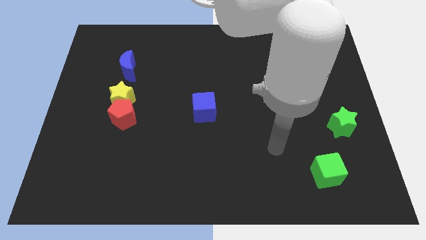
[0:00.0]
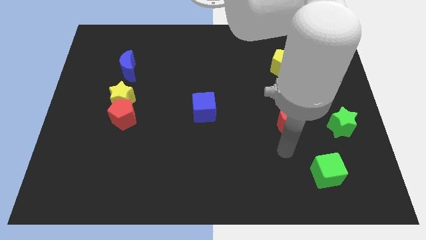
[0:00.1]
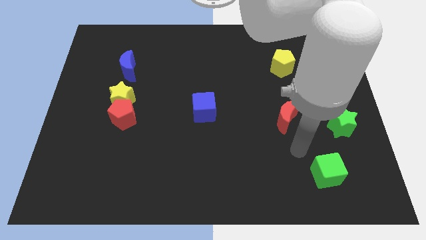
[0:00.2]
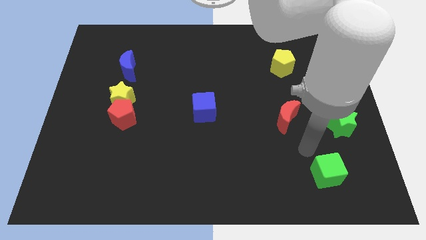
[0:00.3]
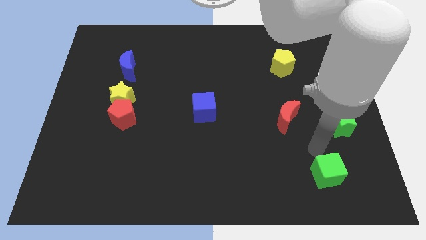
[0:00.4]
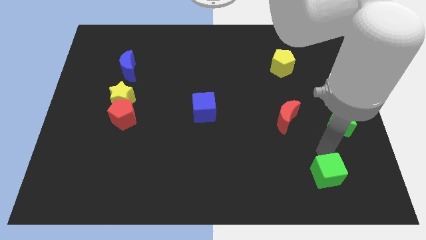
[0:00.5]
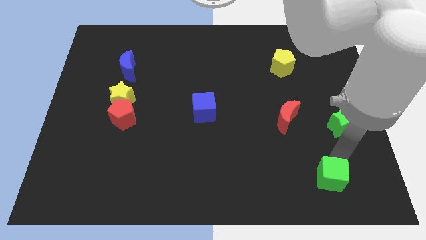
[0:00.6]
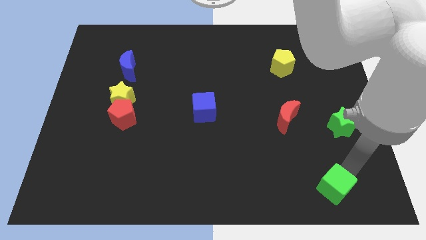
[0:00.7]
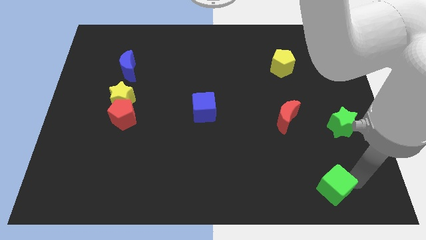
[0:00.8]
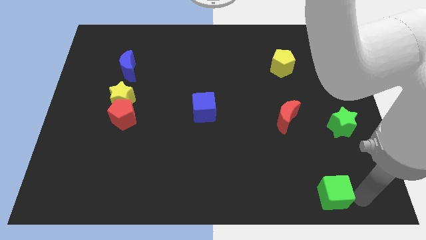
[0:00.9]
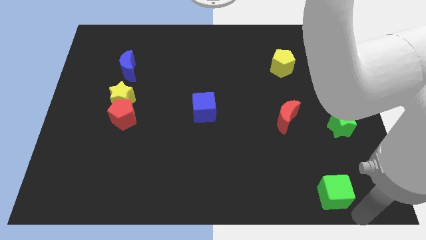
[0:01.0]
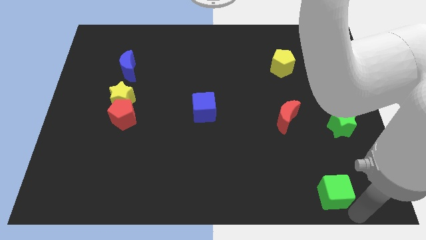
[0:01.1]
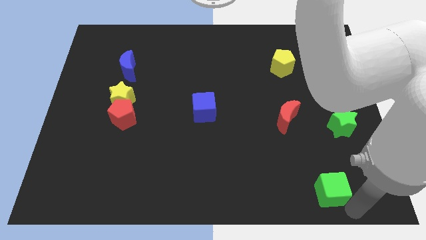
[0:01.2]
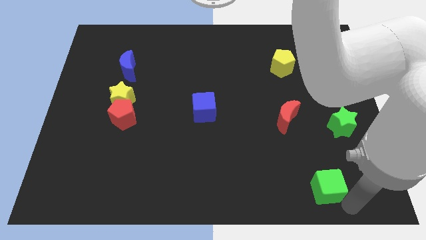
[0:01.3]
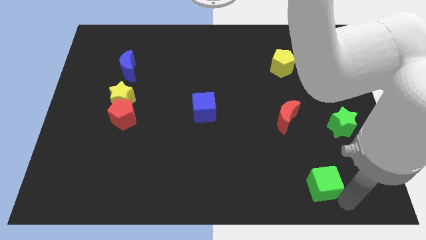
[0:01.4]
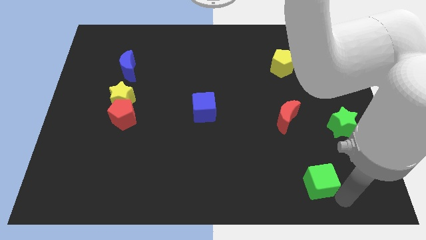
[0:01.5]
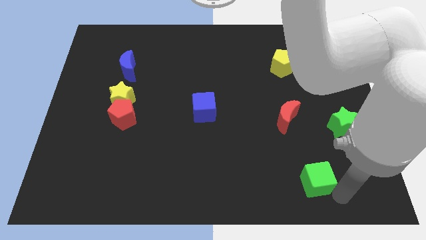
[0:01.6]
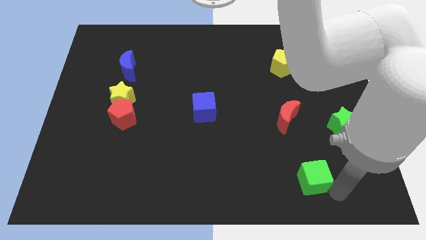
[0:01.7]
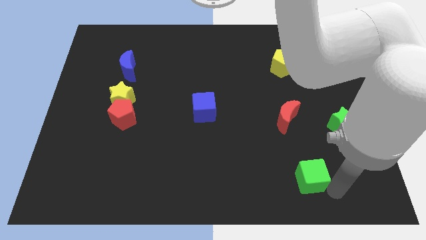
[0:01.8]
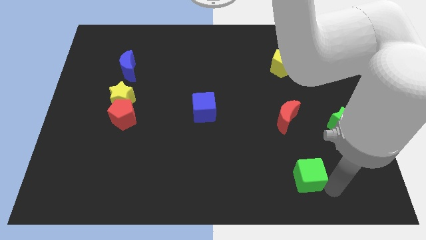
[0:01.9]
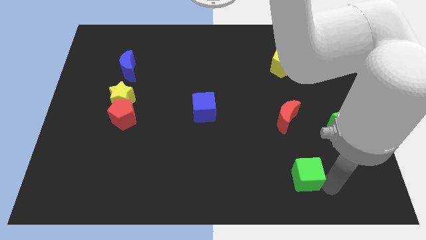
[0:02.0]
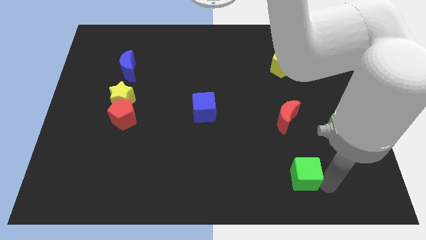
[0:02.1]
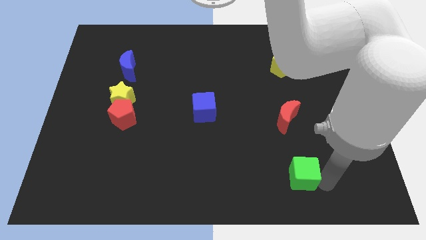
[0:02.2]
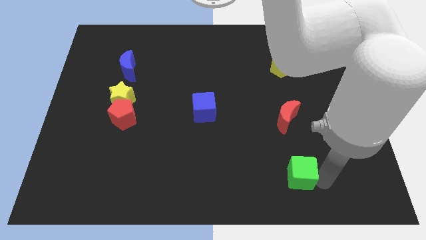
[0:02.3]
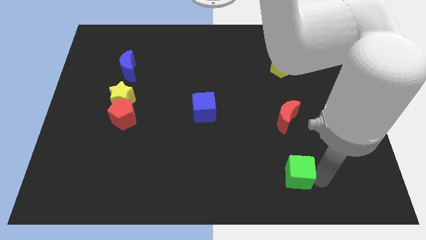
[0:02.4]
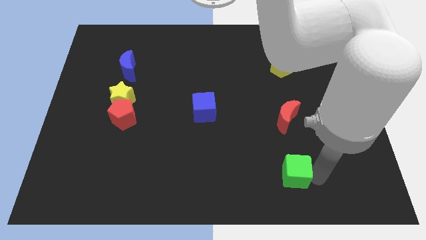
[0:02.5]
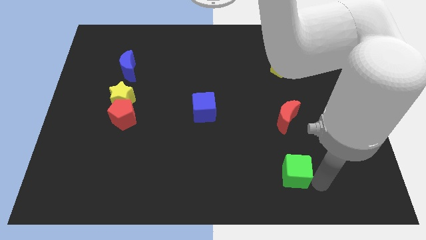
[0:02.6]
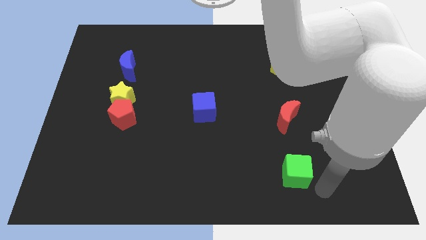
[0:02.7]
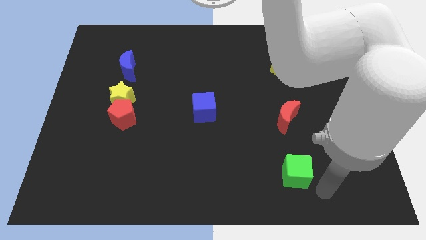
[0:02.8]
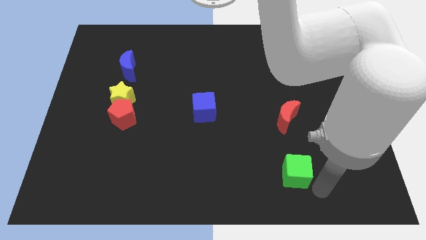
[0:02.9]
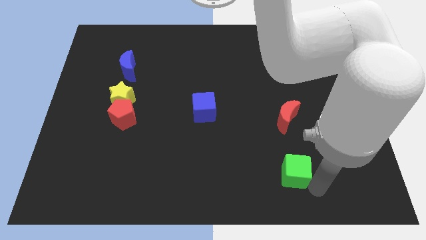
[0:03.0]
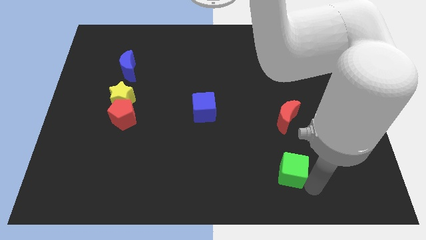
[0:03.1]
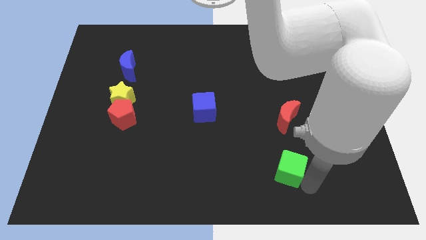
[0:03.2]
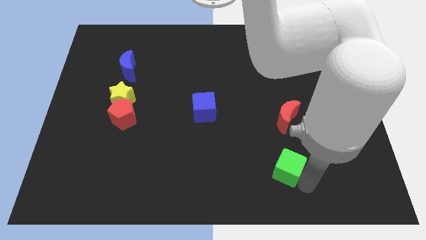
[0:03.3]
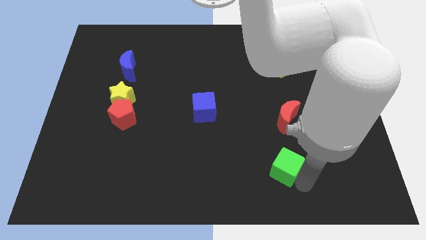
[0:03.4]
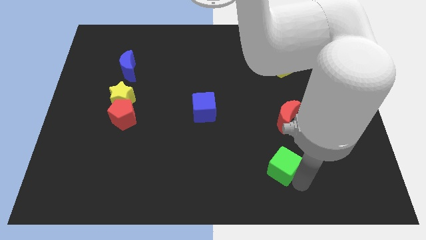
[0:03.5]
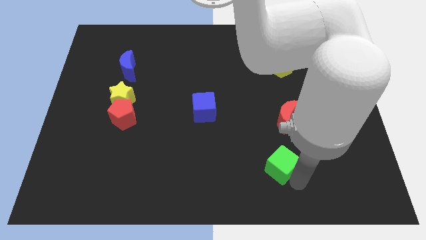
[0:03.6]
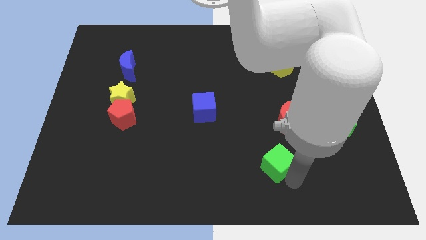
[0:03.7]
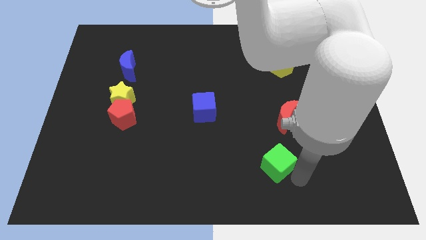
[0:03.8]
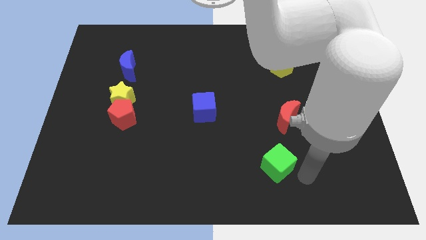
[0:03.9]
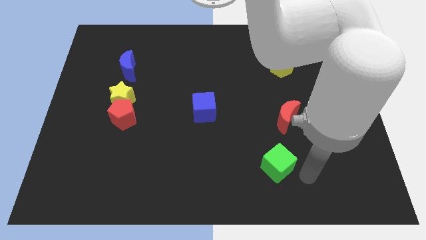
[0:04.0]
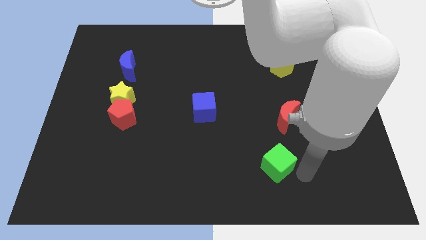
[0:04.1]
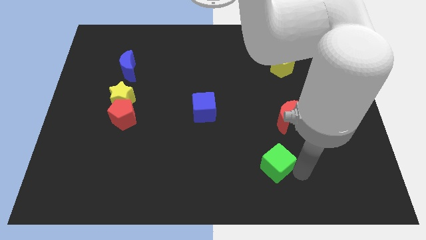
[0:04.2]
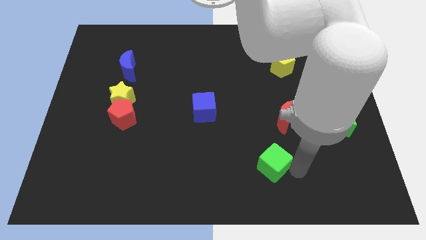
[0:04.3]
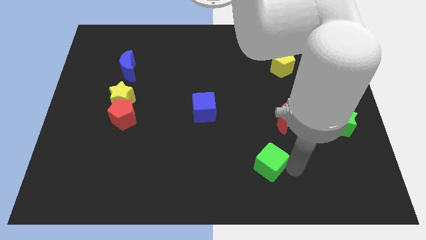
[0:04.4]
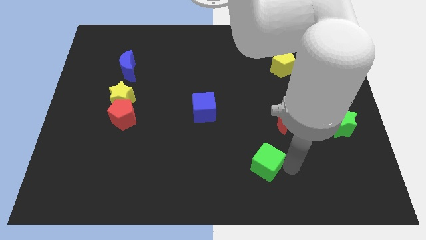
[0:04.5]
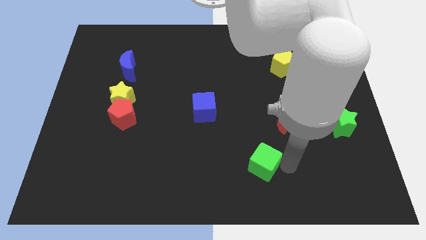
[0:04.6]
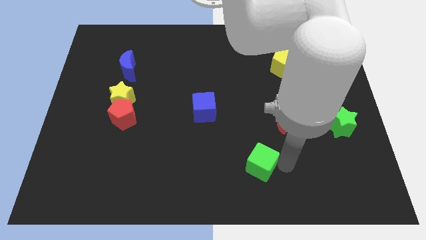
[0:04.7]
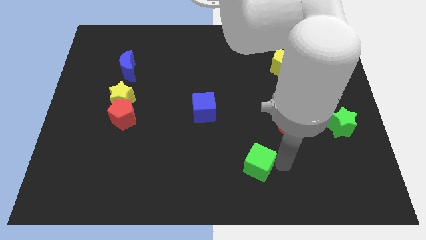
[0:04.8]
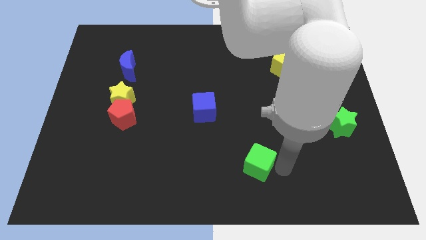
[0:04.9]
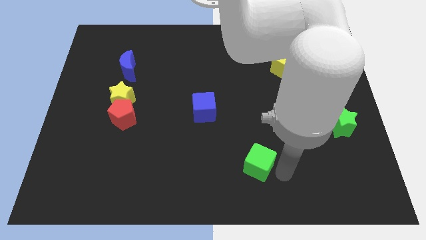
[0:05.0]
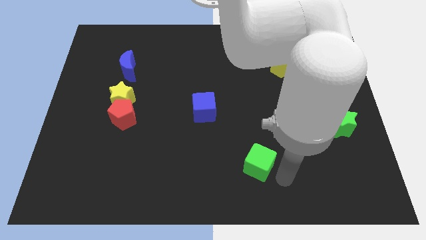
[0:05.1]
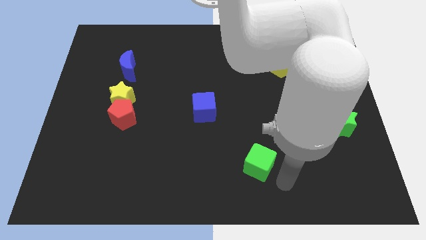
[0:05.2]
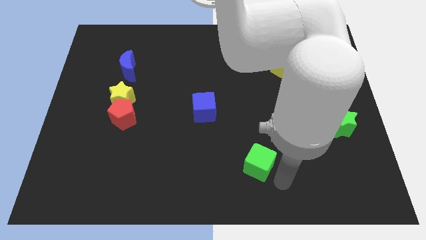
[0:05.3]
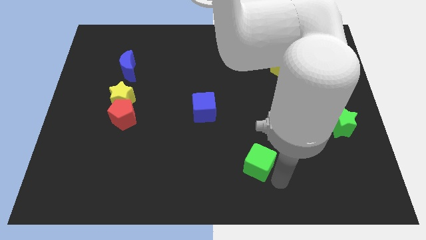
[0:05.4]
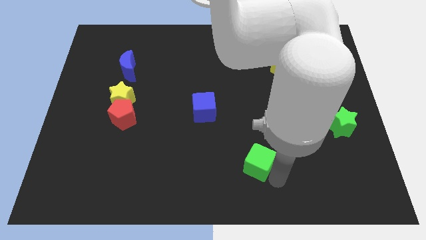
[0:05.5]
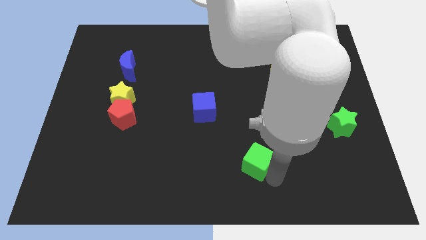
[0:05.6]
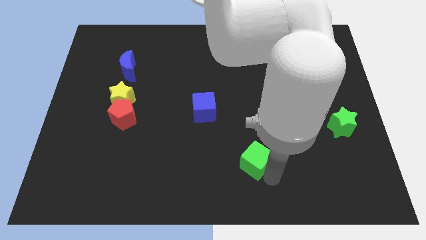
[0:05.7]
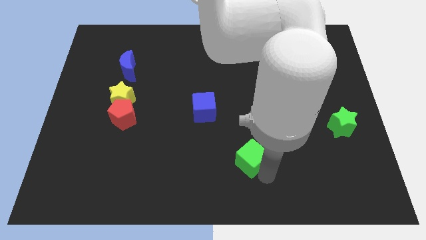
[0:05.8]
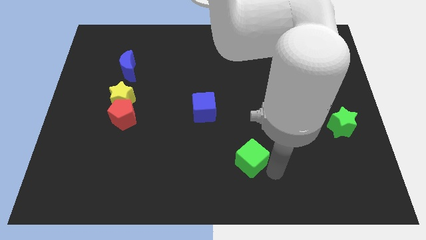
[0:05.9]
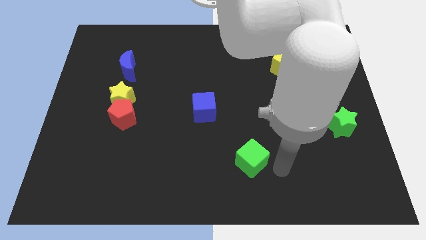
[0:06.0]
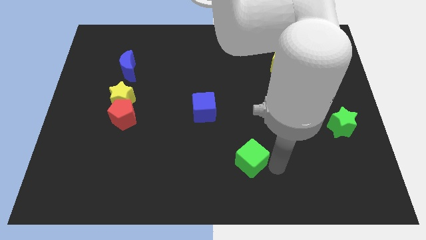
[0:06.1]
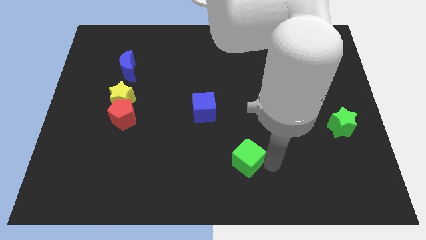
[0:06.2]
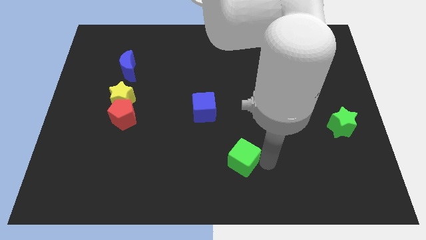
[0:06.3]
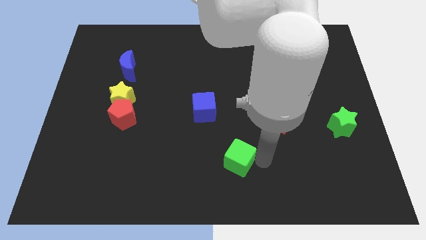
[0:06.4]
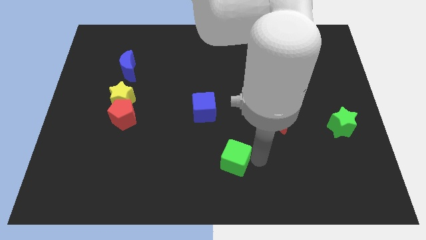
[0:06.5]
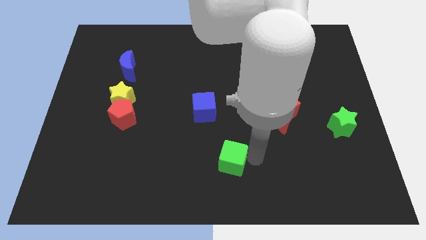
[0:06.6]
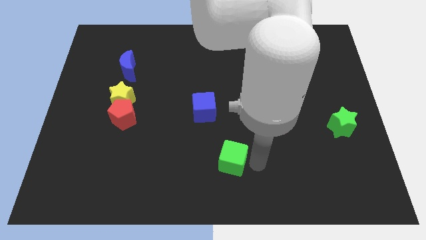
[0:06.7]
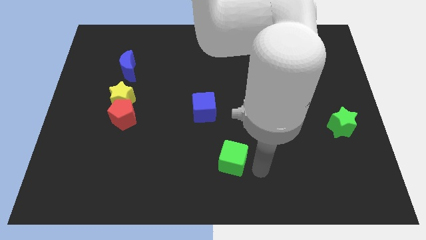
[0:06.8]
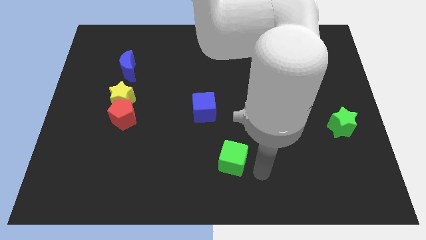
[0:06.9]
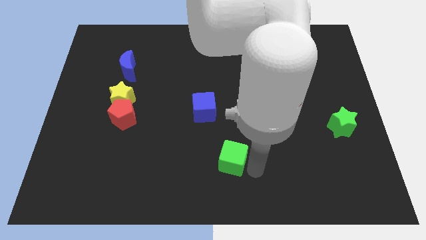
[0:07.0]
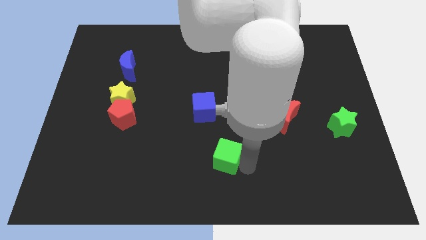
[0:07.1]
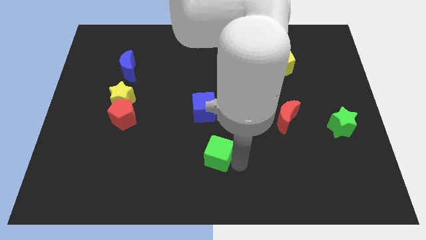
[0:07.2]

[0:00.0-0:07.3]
put the green cube to the bottom side of the blue cube
